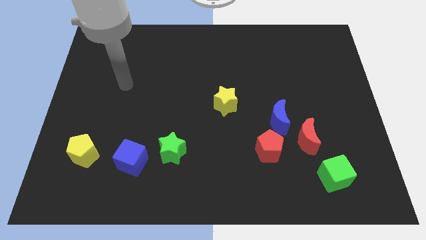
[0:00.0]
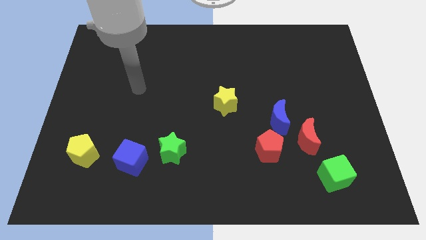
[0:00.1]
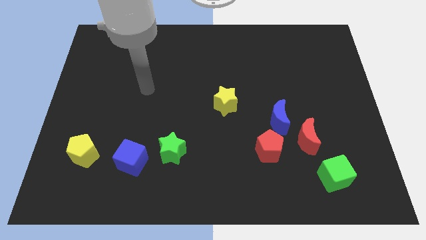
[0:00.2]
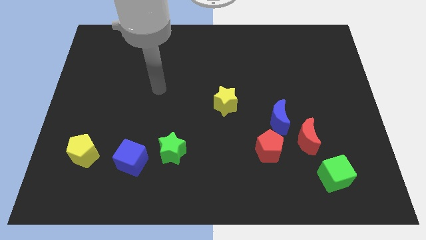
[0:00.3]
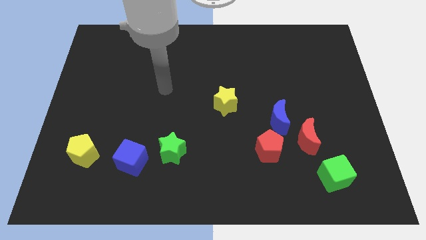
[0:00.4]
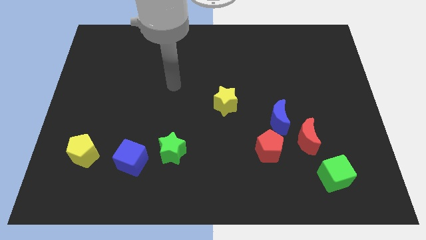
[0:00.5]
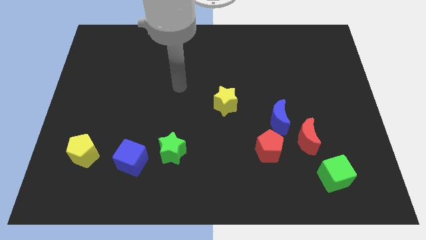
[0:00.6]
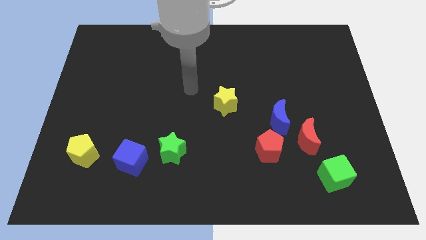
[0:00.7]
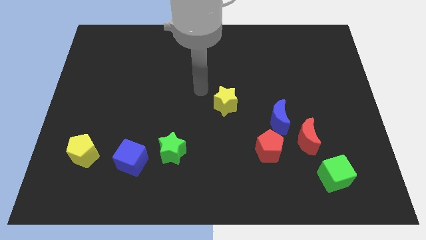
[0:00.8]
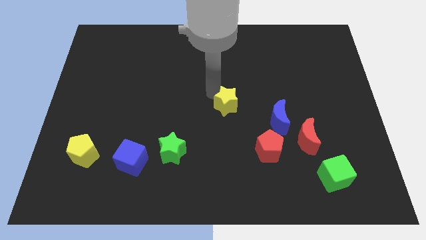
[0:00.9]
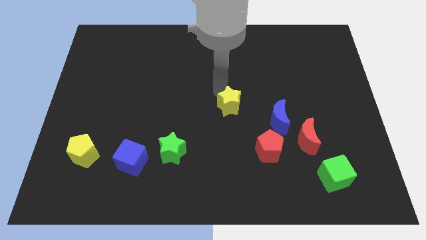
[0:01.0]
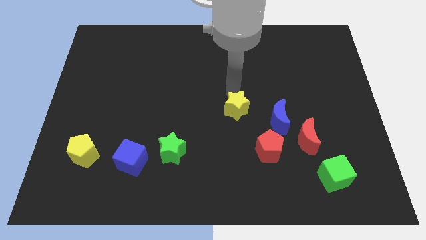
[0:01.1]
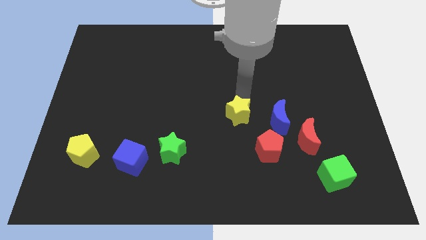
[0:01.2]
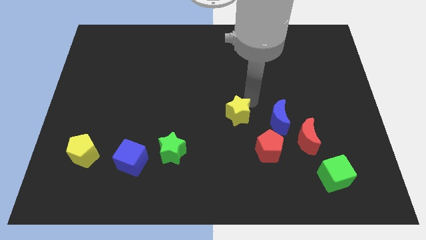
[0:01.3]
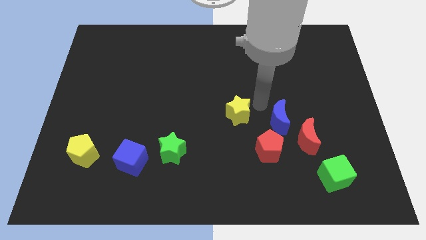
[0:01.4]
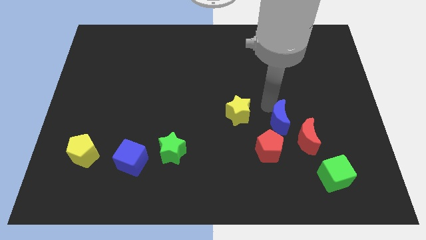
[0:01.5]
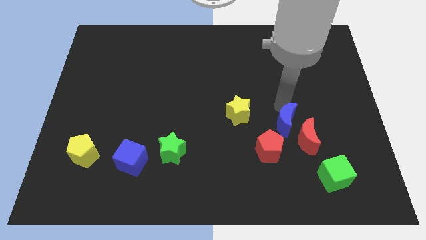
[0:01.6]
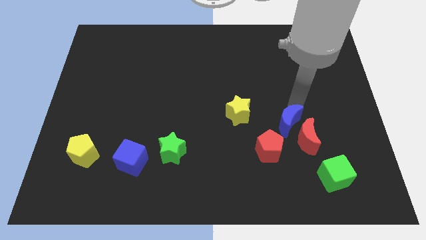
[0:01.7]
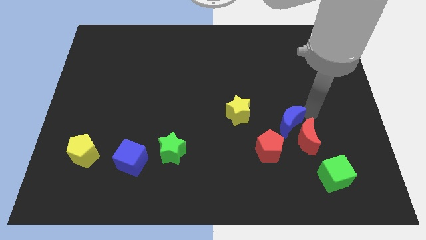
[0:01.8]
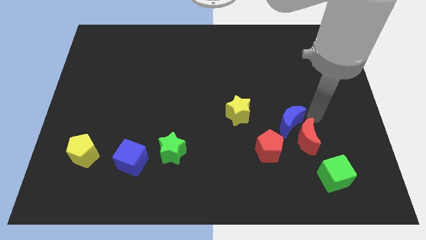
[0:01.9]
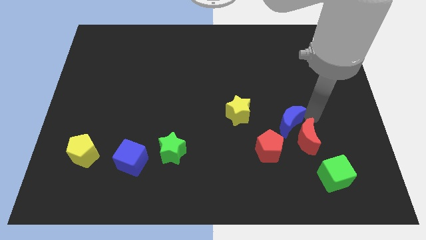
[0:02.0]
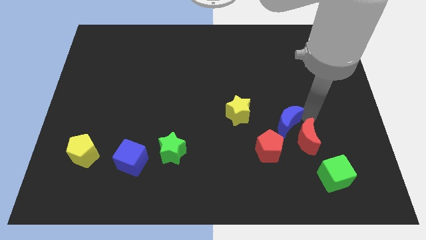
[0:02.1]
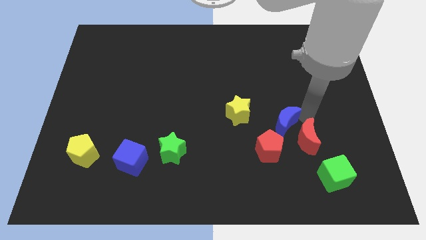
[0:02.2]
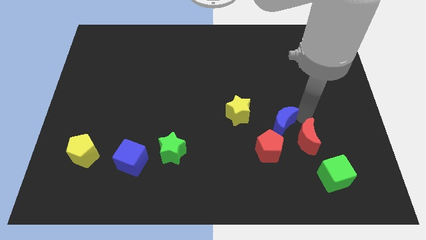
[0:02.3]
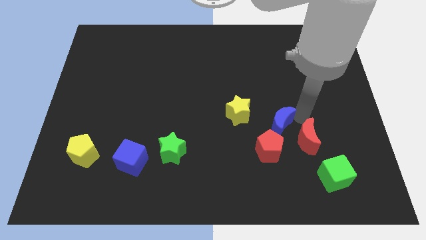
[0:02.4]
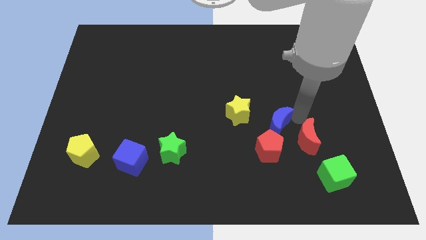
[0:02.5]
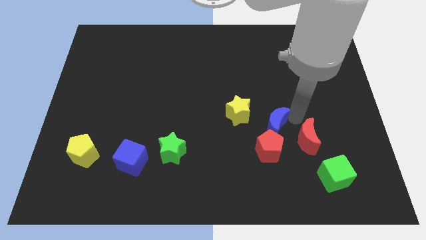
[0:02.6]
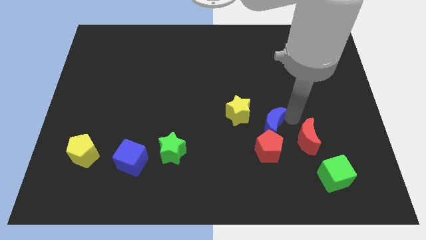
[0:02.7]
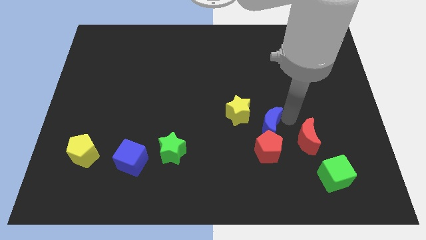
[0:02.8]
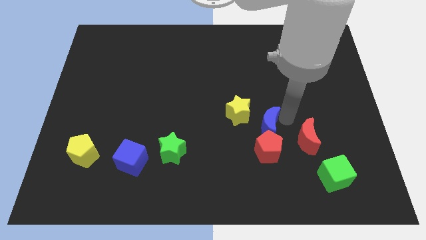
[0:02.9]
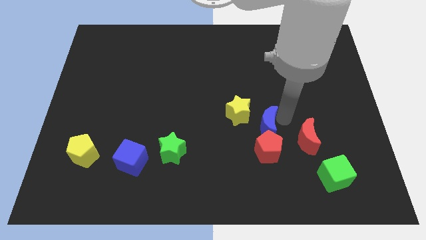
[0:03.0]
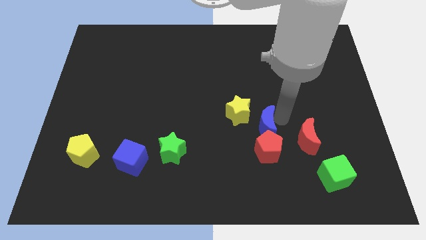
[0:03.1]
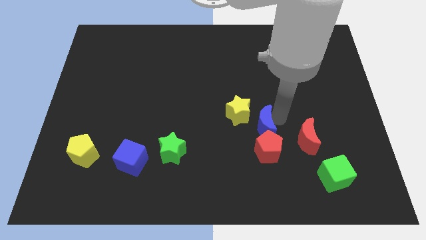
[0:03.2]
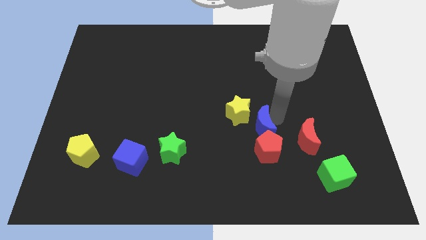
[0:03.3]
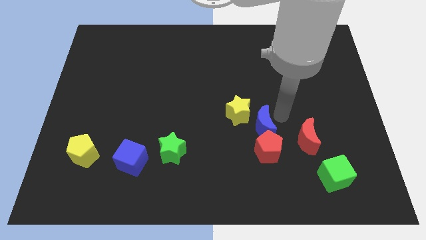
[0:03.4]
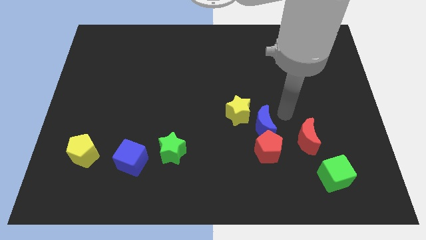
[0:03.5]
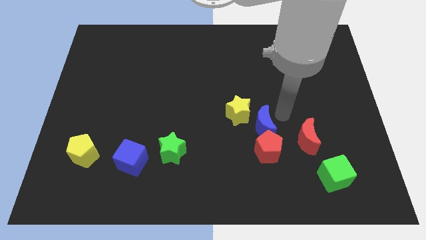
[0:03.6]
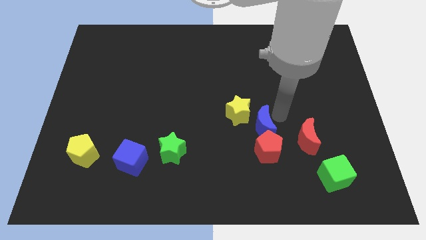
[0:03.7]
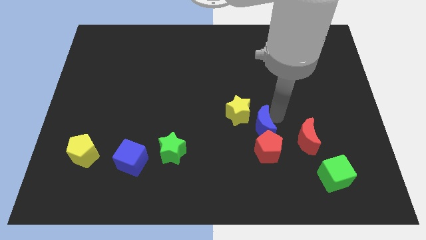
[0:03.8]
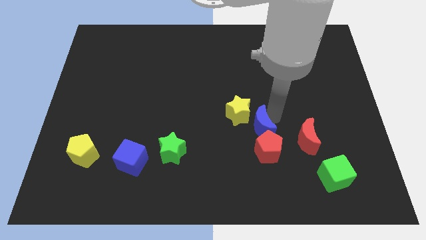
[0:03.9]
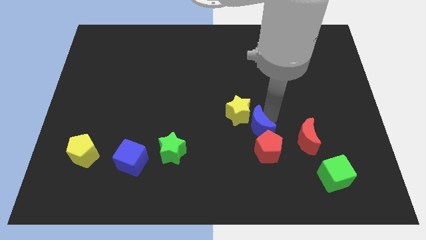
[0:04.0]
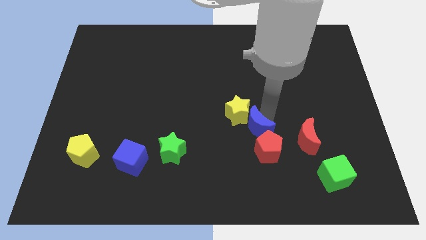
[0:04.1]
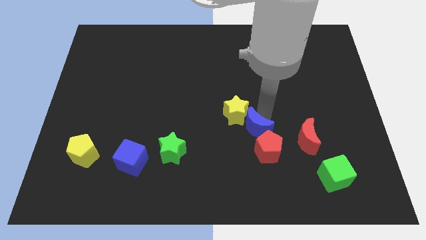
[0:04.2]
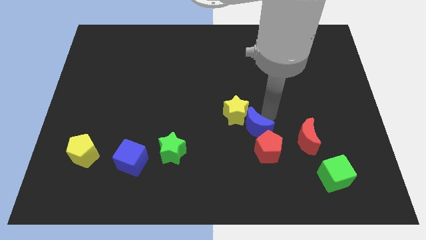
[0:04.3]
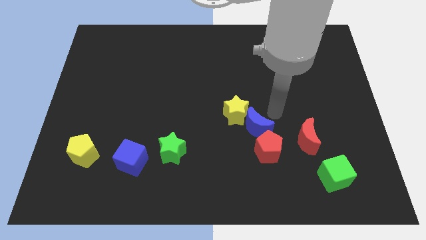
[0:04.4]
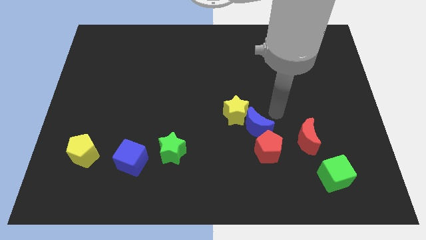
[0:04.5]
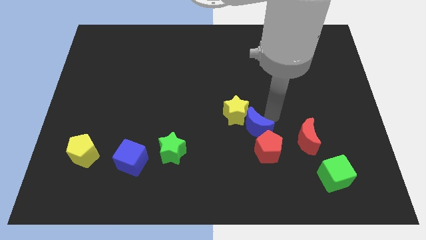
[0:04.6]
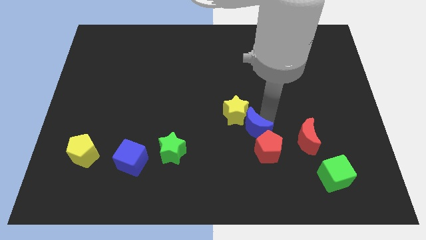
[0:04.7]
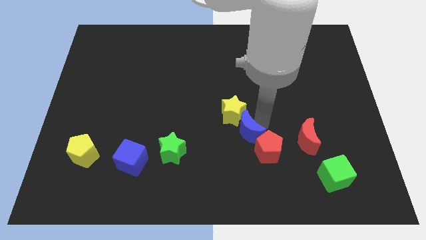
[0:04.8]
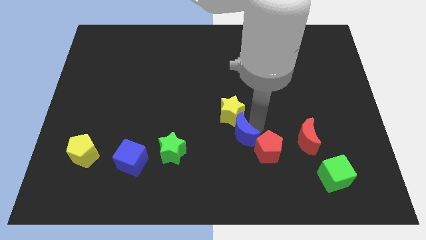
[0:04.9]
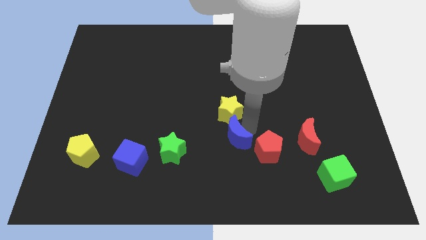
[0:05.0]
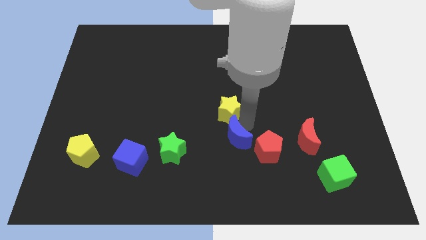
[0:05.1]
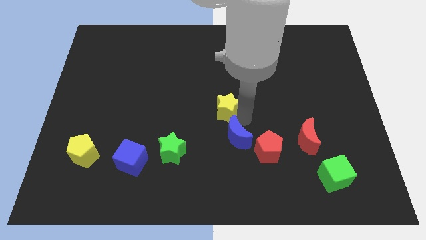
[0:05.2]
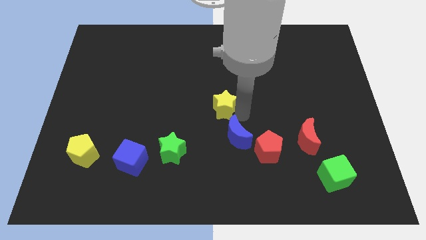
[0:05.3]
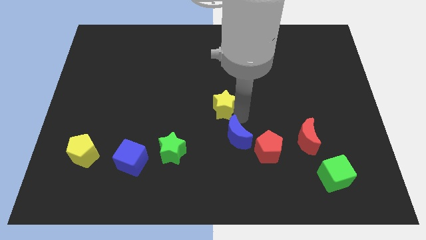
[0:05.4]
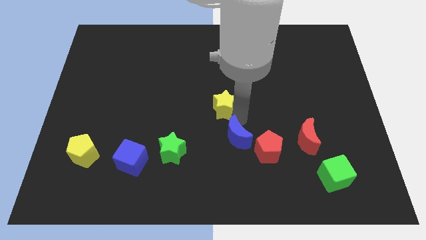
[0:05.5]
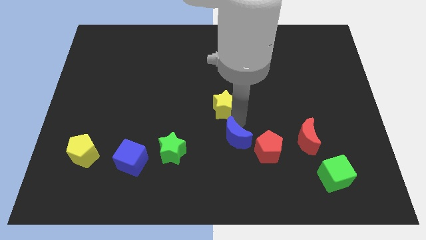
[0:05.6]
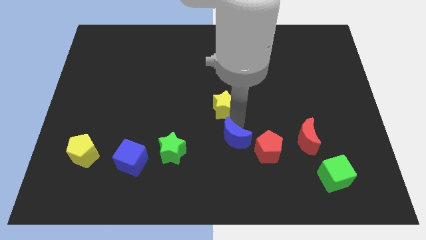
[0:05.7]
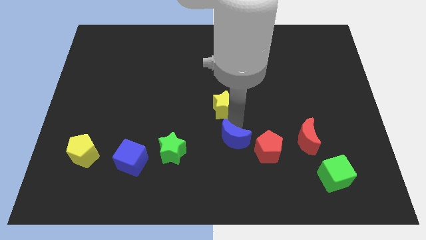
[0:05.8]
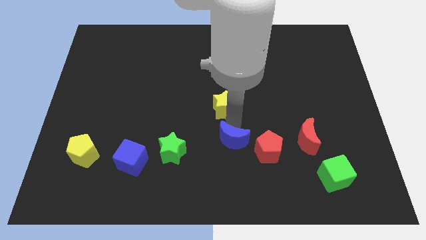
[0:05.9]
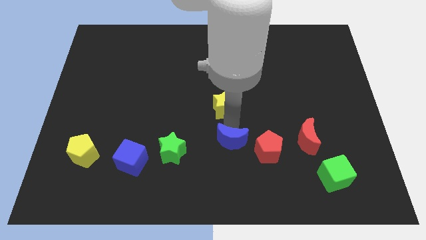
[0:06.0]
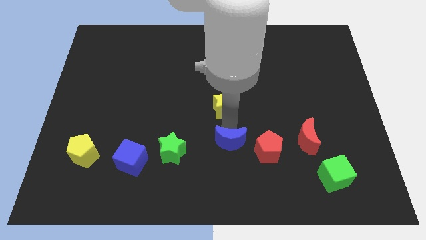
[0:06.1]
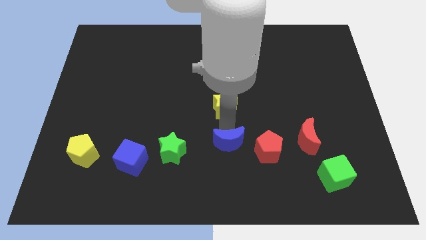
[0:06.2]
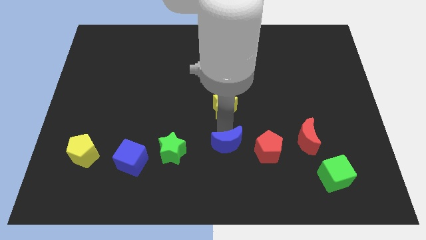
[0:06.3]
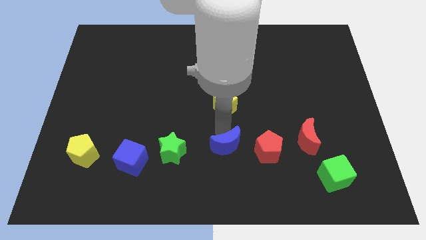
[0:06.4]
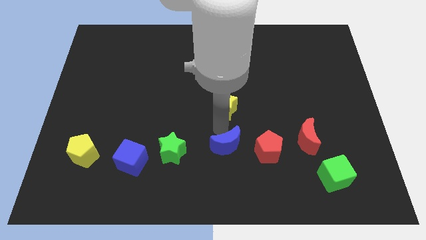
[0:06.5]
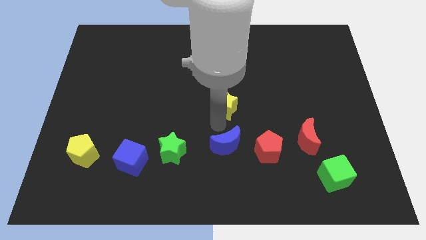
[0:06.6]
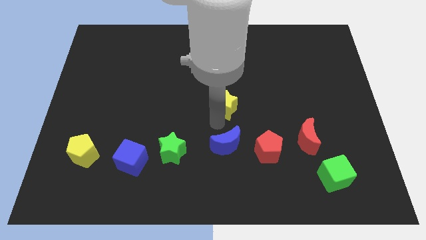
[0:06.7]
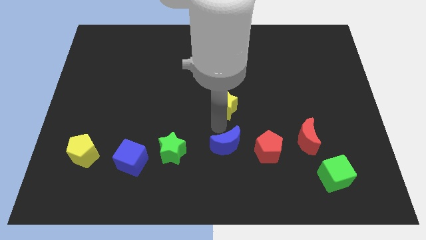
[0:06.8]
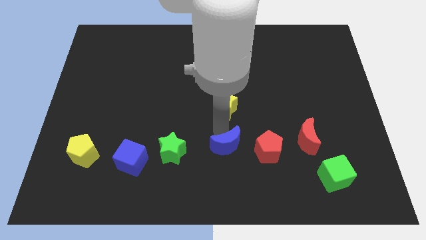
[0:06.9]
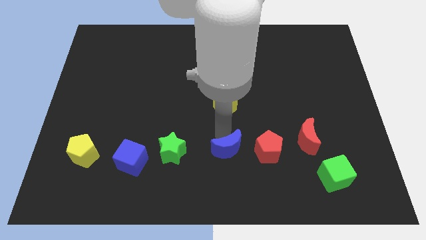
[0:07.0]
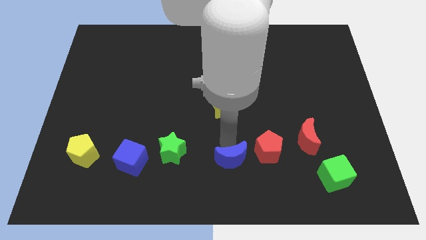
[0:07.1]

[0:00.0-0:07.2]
slide the blue moon to the bottom side
